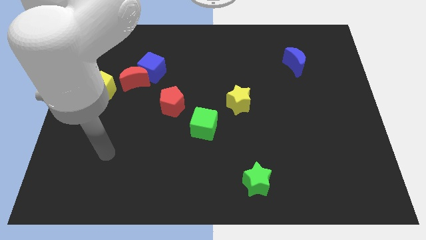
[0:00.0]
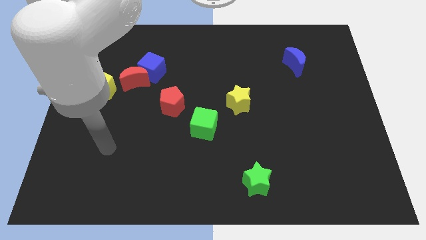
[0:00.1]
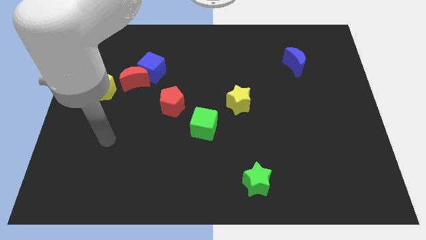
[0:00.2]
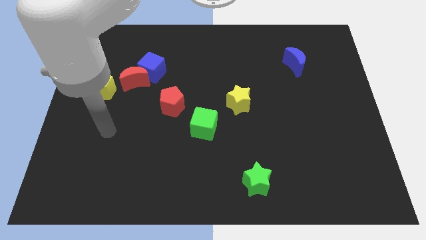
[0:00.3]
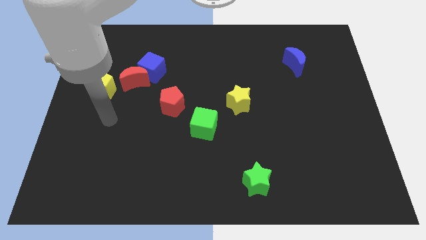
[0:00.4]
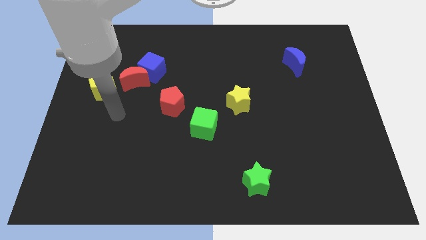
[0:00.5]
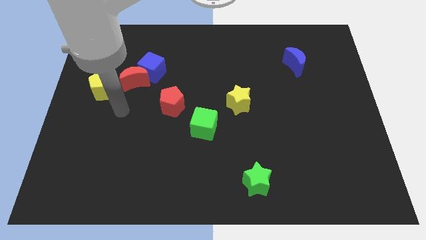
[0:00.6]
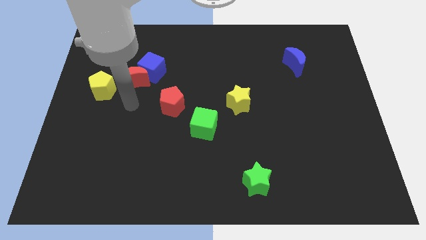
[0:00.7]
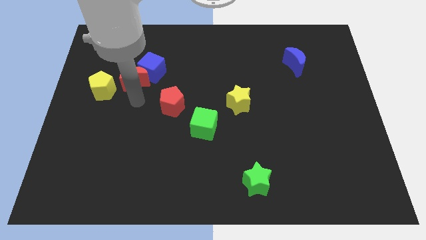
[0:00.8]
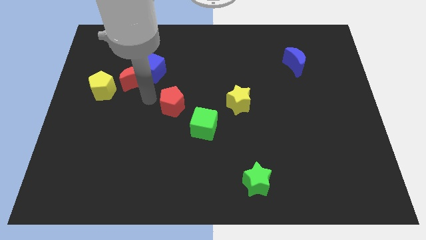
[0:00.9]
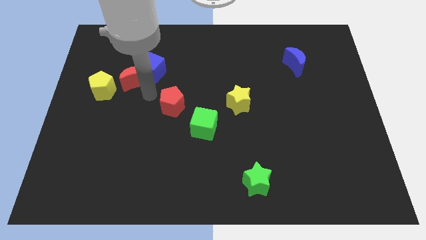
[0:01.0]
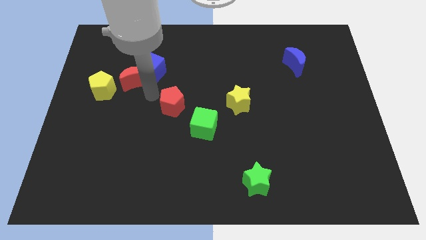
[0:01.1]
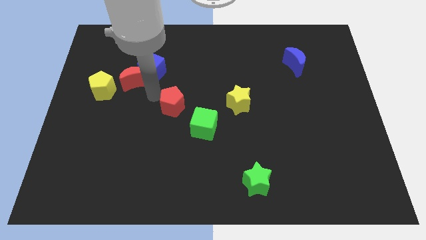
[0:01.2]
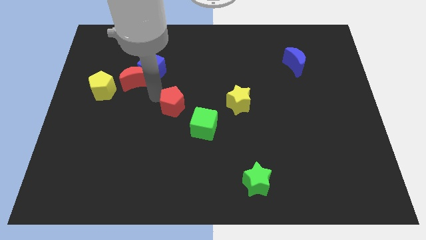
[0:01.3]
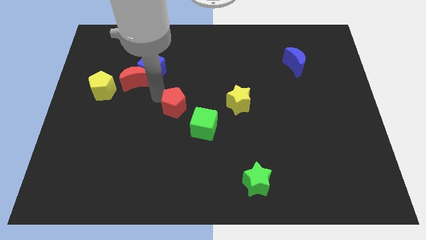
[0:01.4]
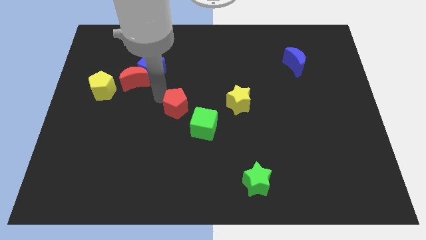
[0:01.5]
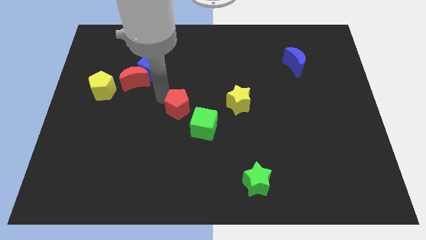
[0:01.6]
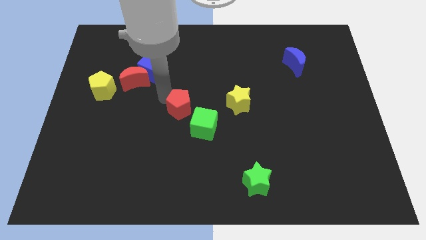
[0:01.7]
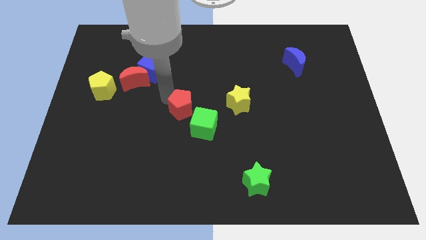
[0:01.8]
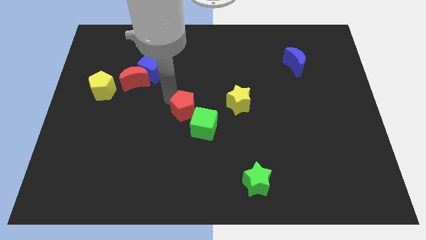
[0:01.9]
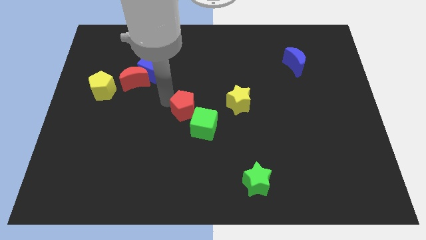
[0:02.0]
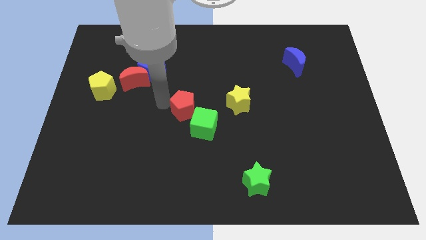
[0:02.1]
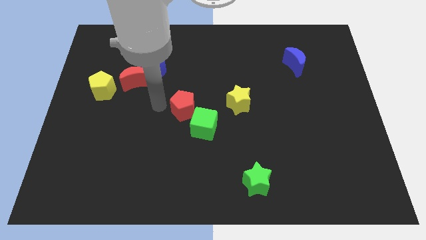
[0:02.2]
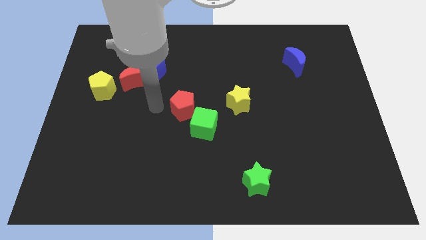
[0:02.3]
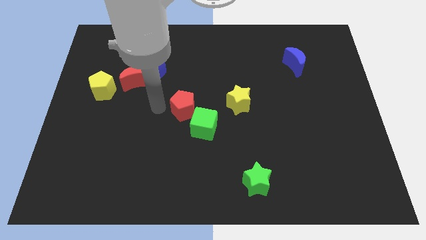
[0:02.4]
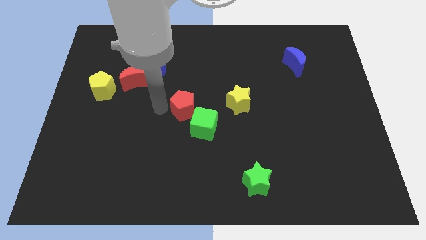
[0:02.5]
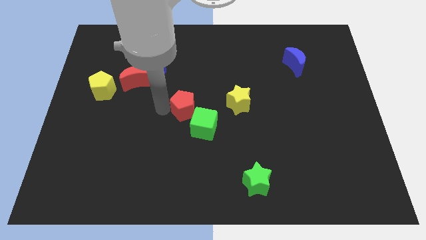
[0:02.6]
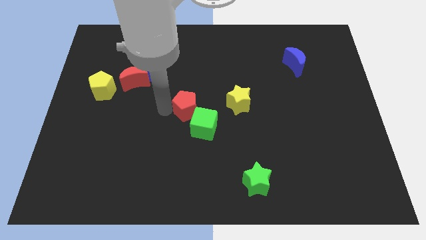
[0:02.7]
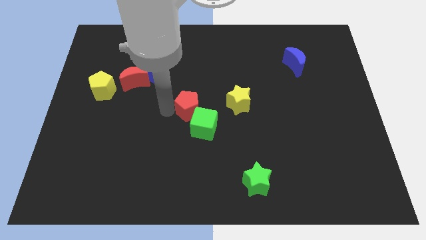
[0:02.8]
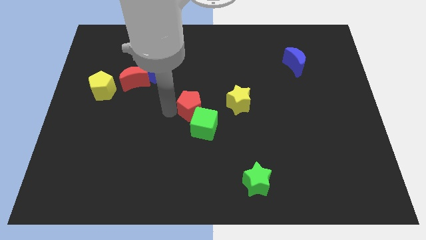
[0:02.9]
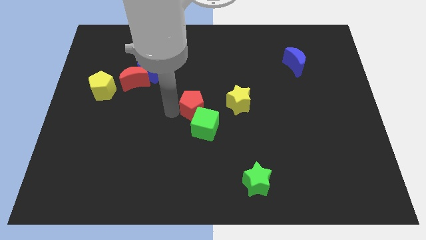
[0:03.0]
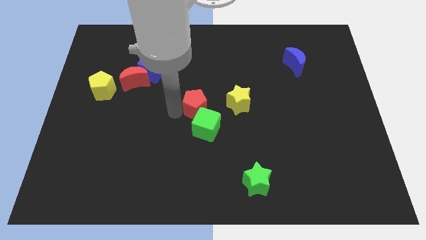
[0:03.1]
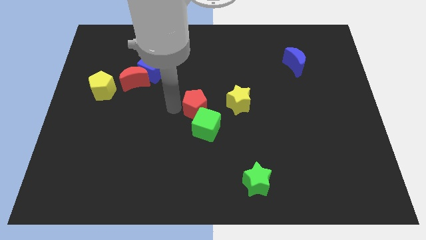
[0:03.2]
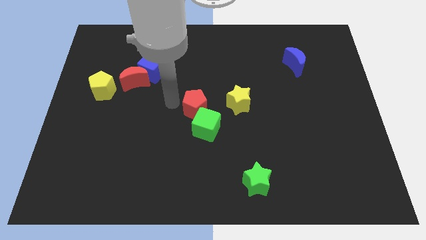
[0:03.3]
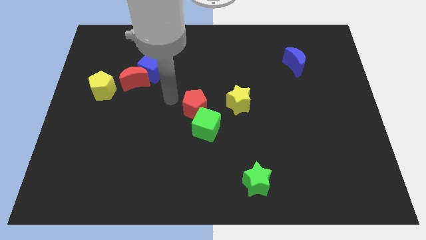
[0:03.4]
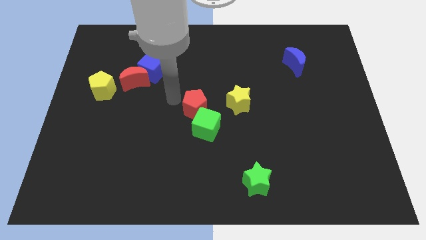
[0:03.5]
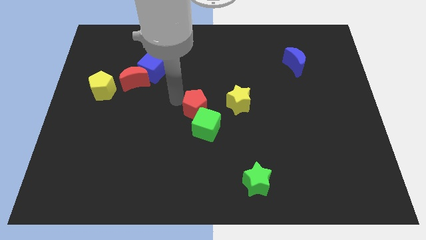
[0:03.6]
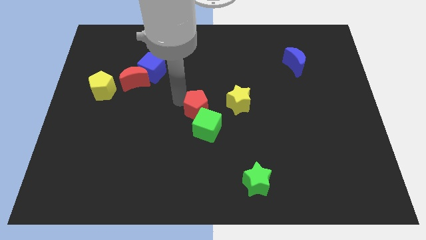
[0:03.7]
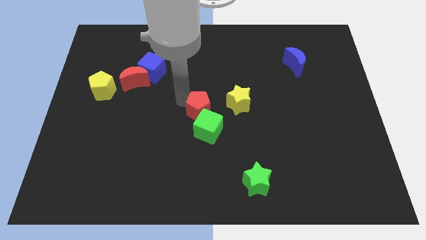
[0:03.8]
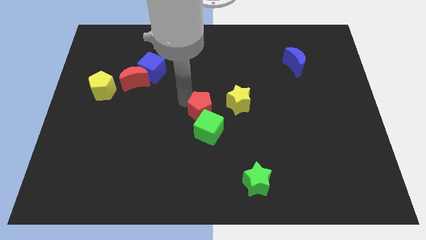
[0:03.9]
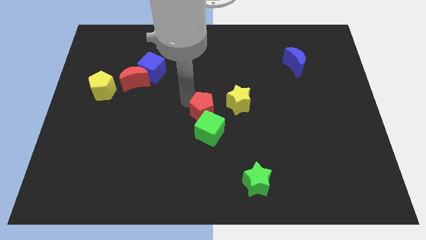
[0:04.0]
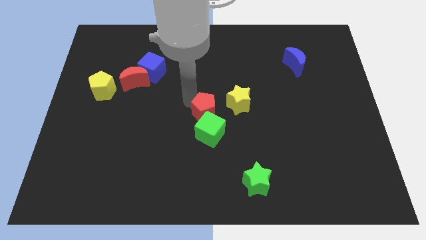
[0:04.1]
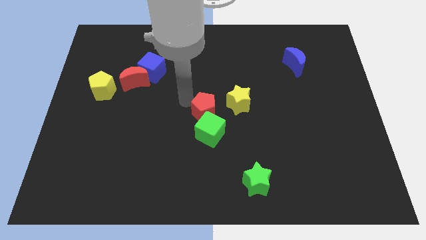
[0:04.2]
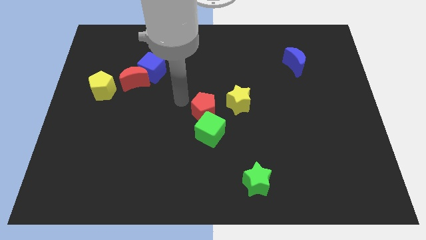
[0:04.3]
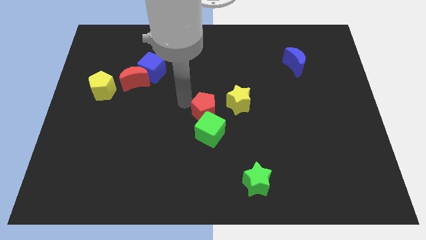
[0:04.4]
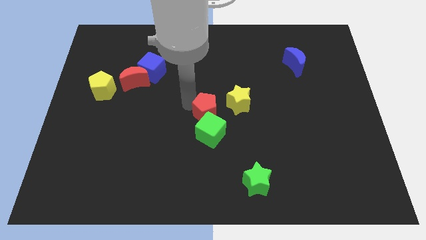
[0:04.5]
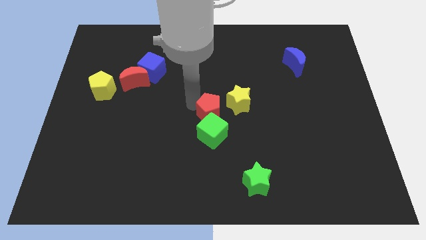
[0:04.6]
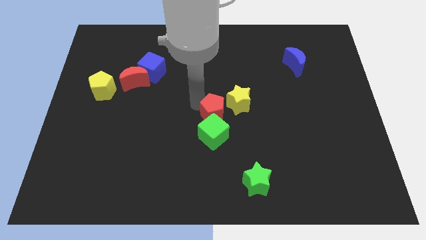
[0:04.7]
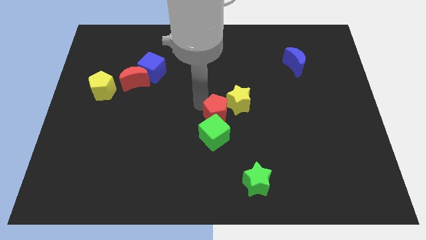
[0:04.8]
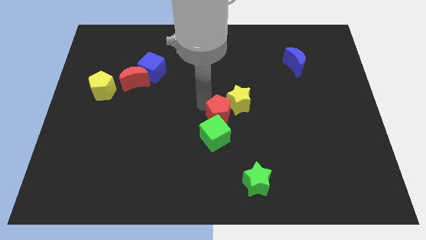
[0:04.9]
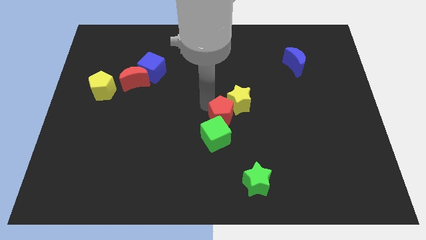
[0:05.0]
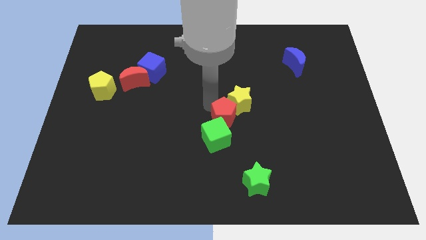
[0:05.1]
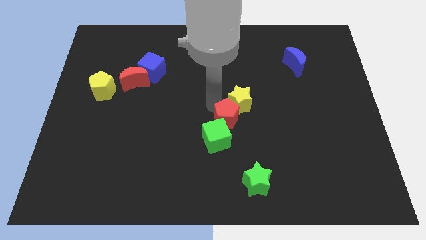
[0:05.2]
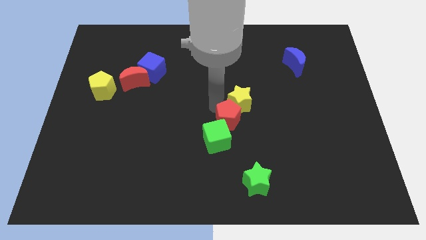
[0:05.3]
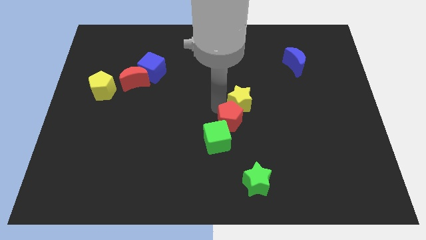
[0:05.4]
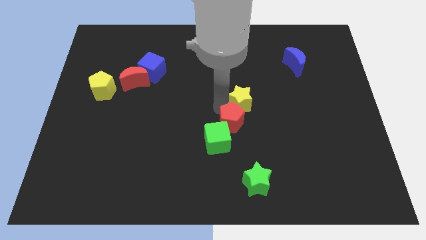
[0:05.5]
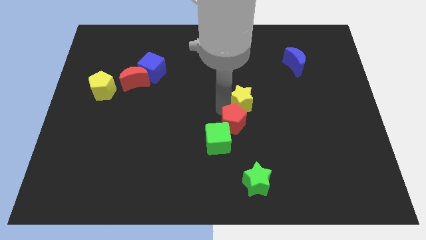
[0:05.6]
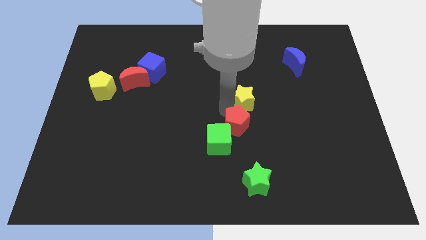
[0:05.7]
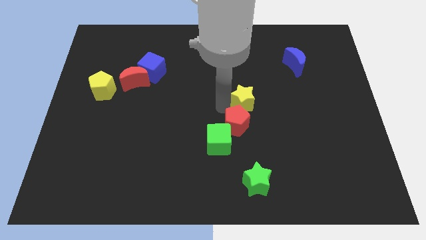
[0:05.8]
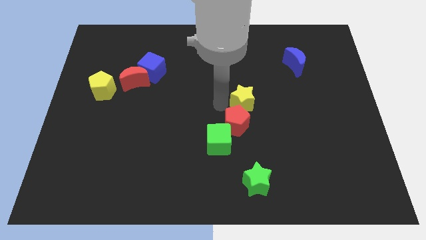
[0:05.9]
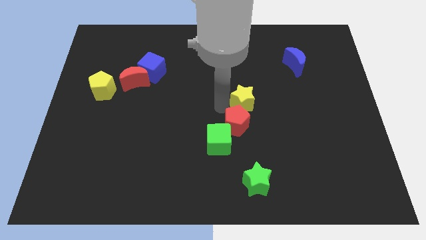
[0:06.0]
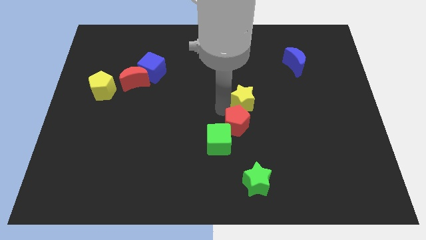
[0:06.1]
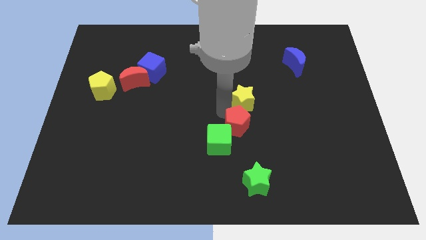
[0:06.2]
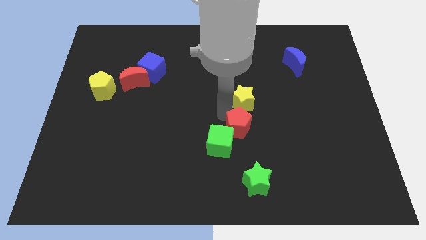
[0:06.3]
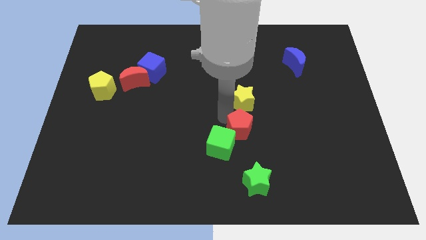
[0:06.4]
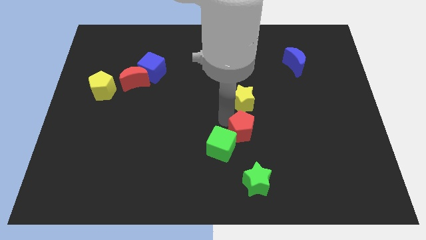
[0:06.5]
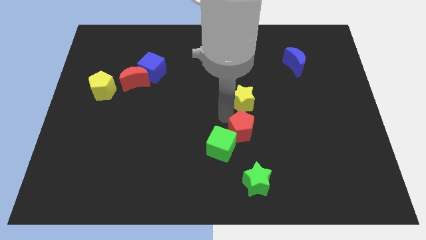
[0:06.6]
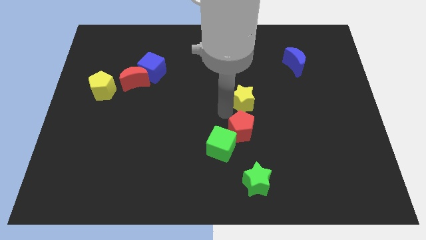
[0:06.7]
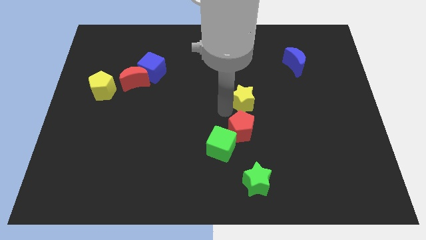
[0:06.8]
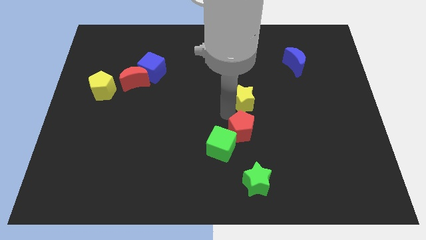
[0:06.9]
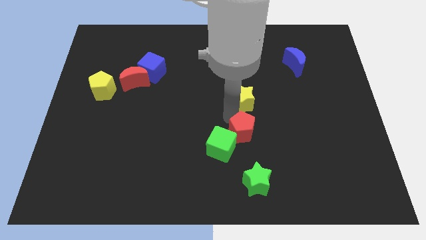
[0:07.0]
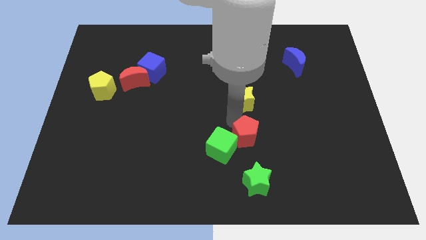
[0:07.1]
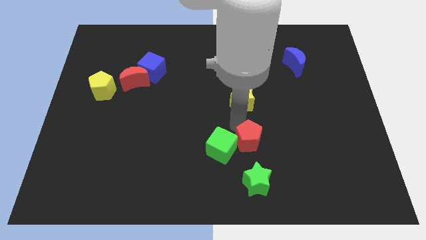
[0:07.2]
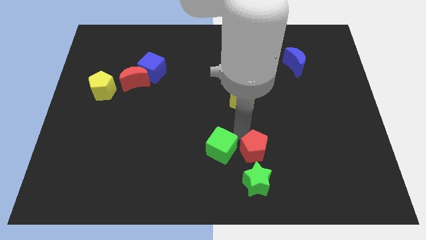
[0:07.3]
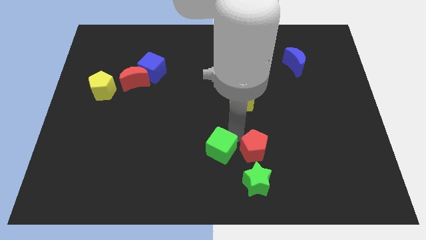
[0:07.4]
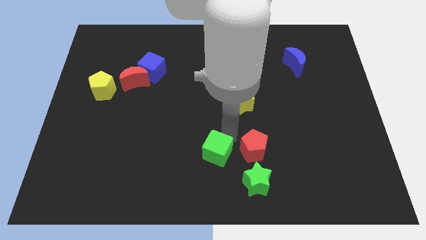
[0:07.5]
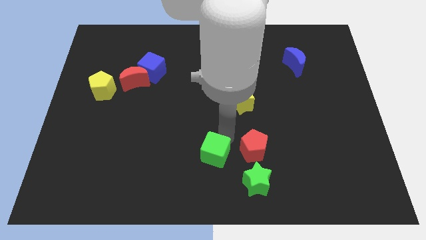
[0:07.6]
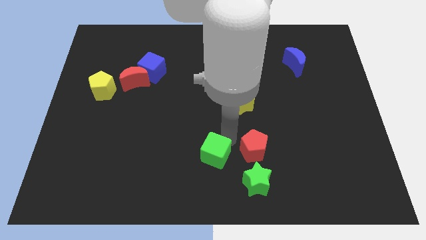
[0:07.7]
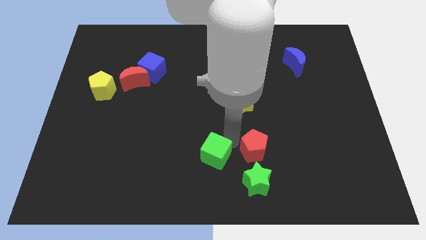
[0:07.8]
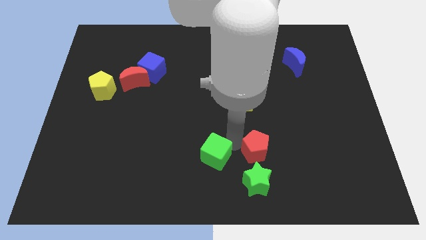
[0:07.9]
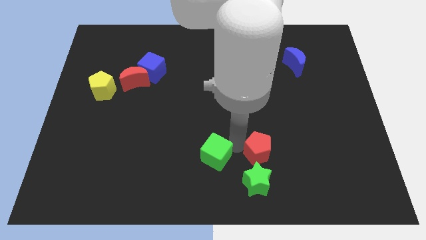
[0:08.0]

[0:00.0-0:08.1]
push the red pentagon to the top right of the green star
